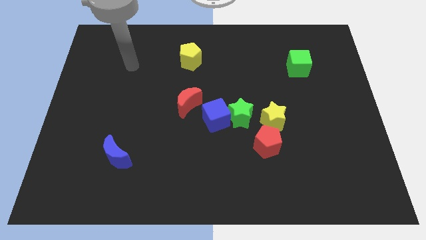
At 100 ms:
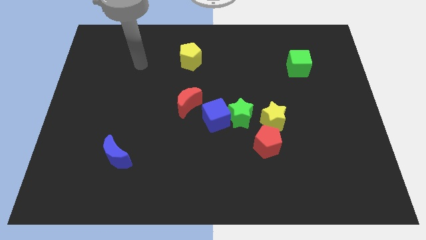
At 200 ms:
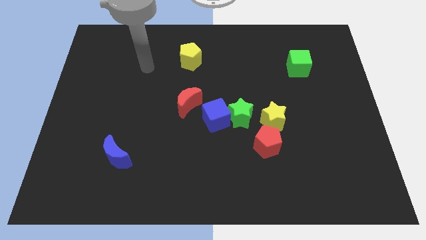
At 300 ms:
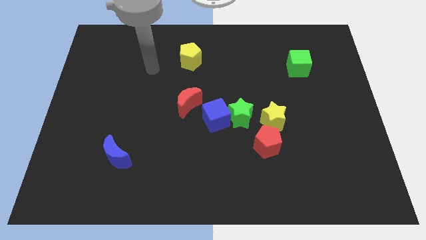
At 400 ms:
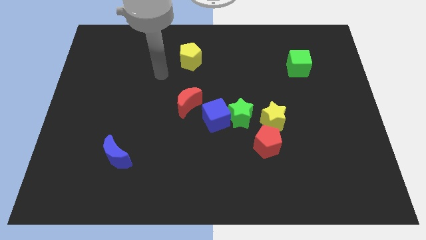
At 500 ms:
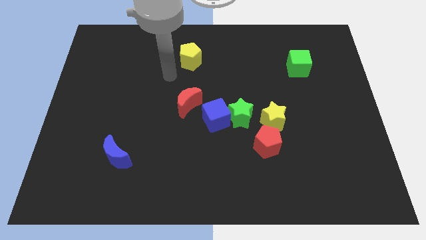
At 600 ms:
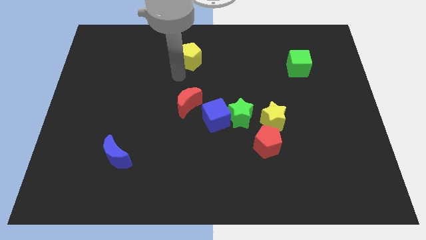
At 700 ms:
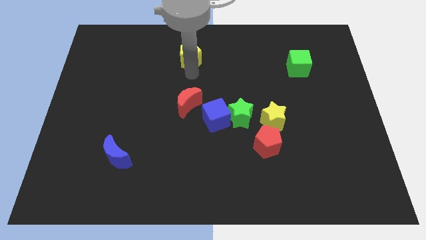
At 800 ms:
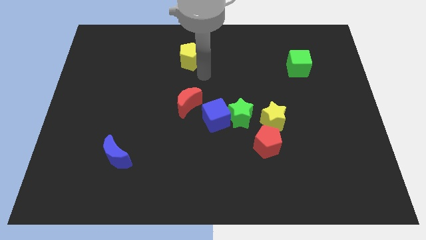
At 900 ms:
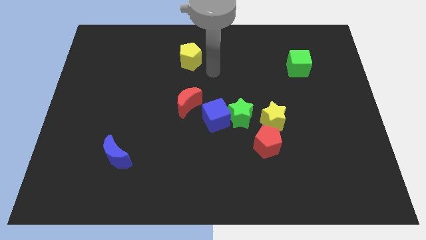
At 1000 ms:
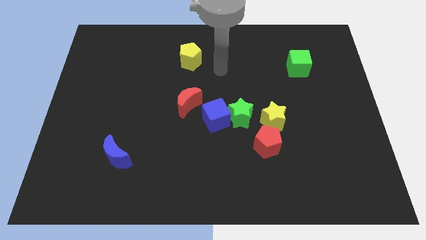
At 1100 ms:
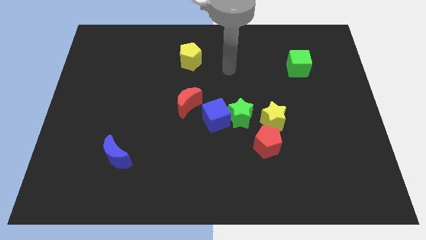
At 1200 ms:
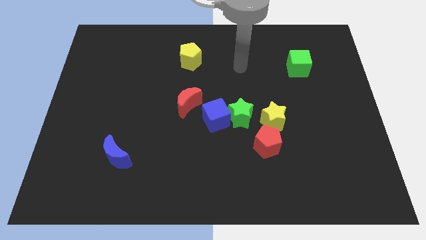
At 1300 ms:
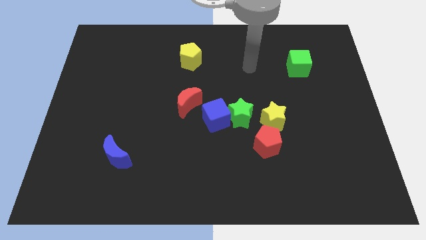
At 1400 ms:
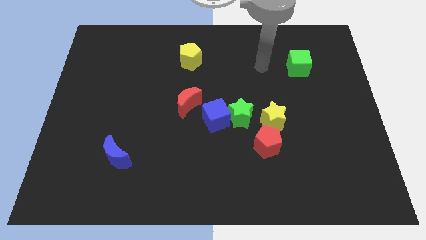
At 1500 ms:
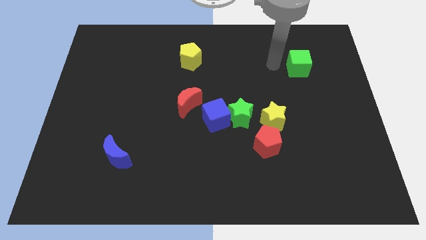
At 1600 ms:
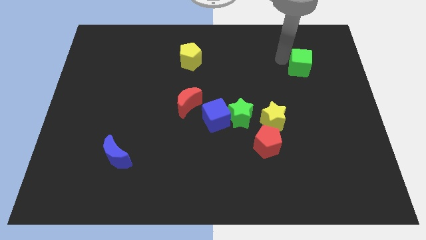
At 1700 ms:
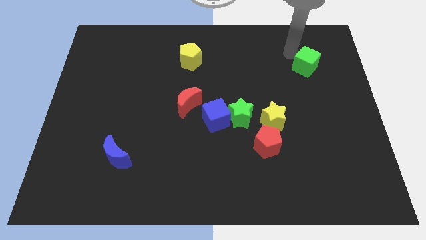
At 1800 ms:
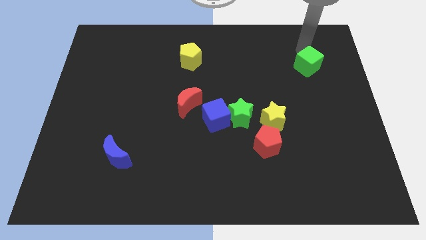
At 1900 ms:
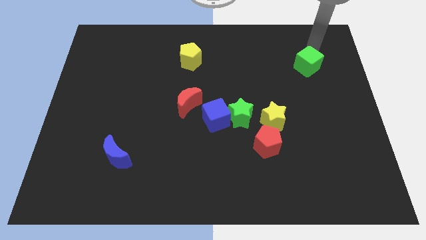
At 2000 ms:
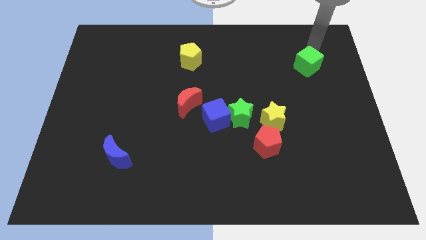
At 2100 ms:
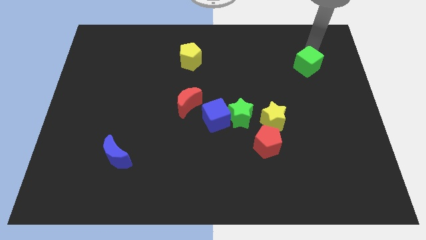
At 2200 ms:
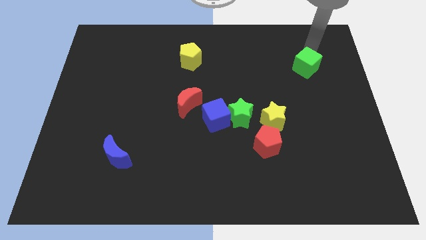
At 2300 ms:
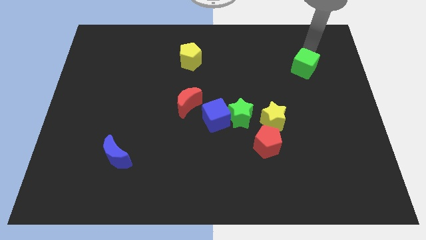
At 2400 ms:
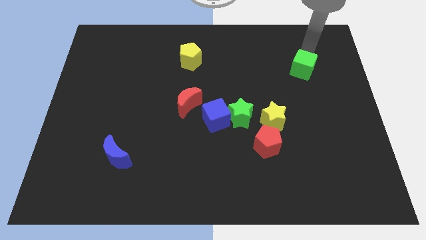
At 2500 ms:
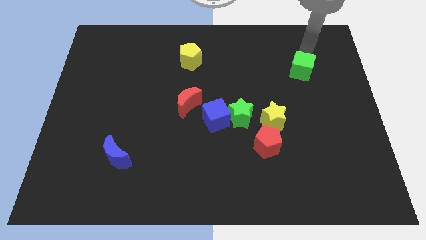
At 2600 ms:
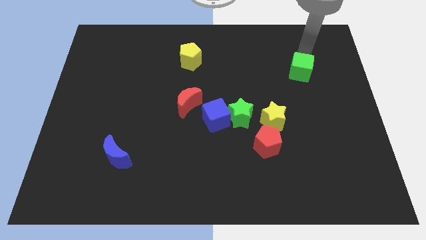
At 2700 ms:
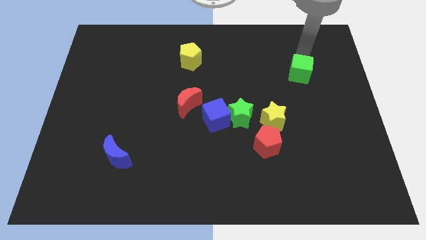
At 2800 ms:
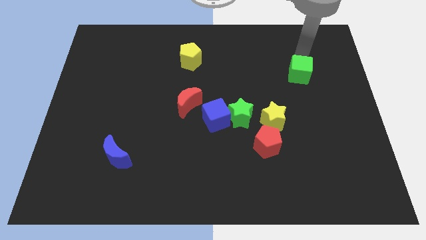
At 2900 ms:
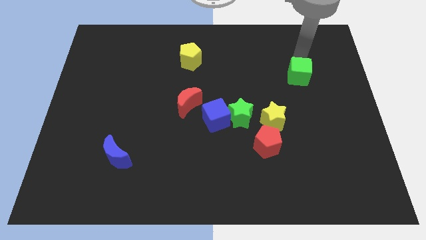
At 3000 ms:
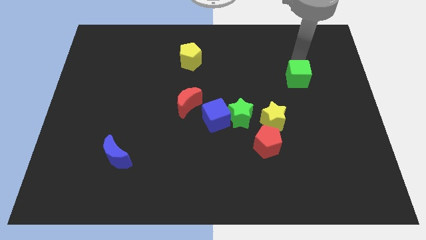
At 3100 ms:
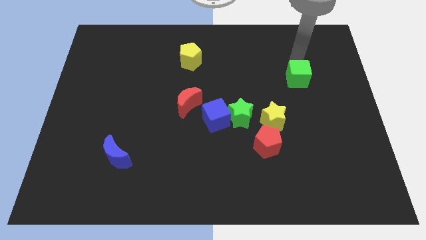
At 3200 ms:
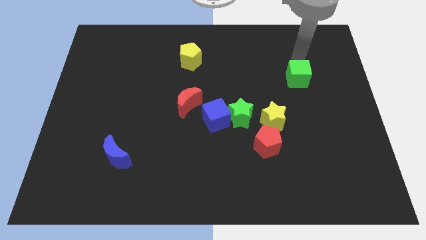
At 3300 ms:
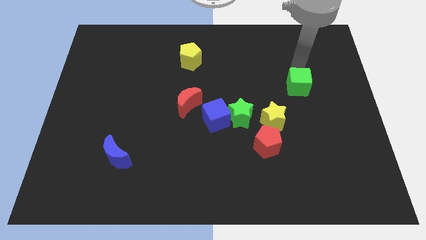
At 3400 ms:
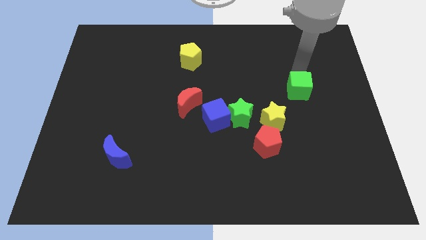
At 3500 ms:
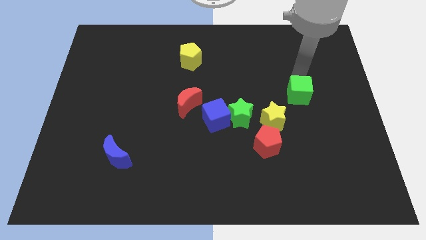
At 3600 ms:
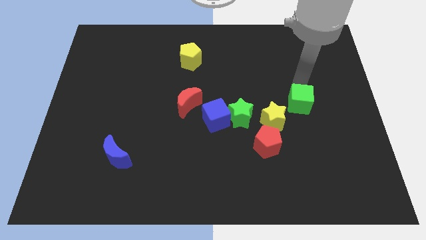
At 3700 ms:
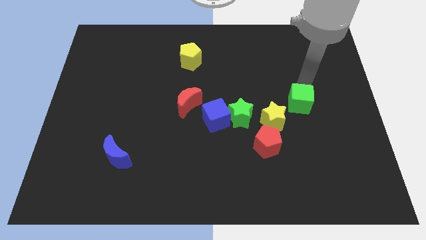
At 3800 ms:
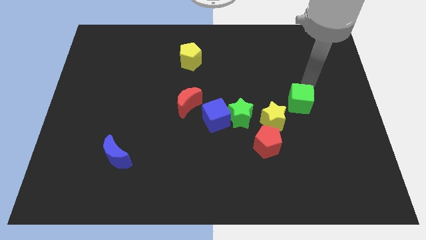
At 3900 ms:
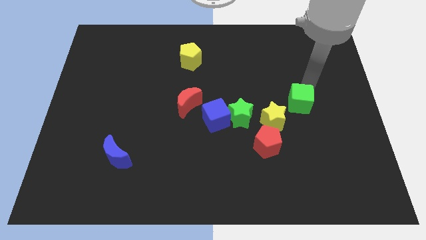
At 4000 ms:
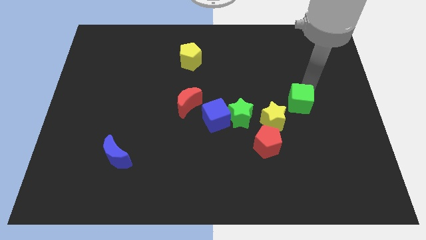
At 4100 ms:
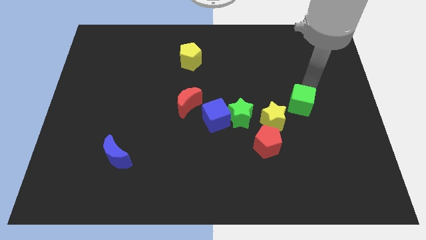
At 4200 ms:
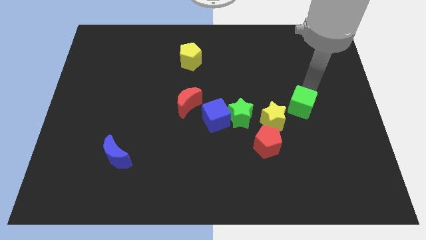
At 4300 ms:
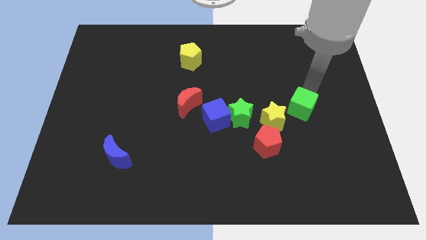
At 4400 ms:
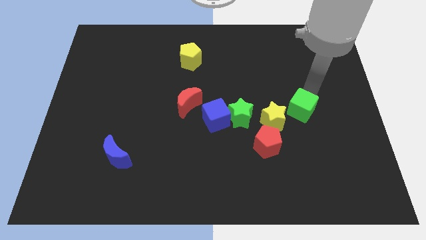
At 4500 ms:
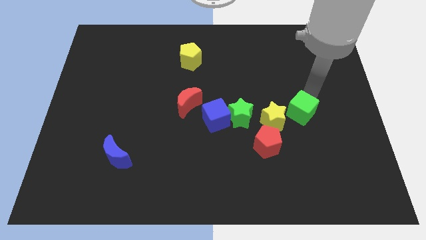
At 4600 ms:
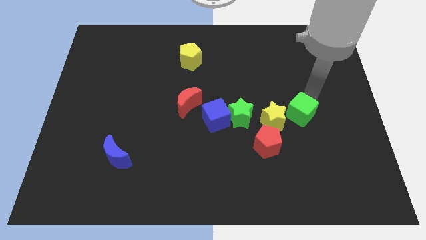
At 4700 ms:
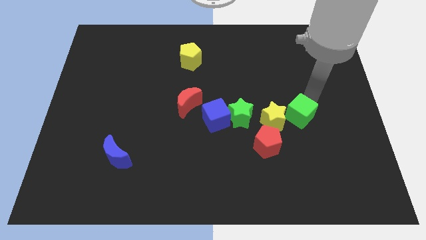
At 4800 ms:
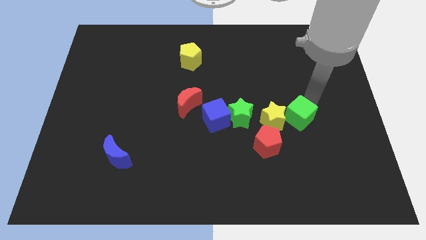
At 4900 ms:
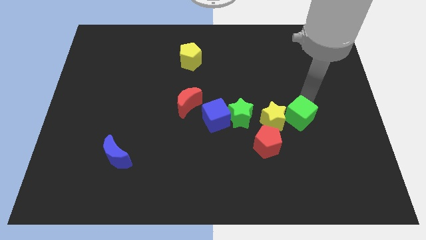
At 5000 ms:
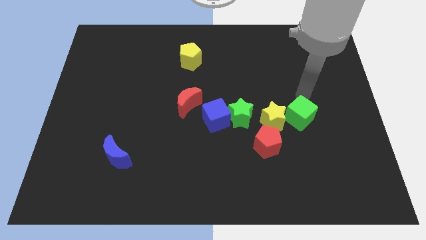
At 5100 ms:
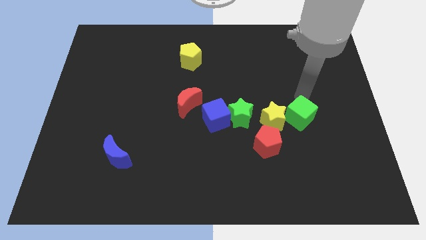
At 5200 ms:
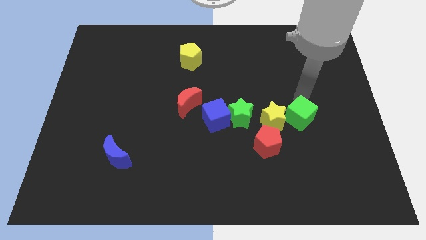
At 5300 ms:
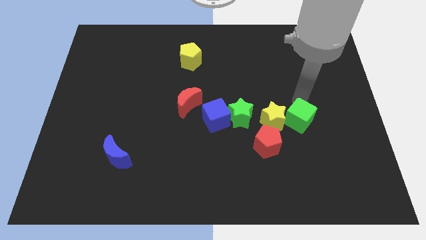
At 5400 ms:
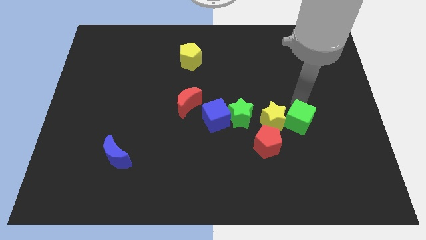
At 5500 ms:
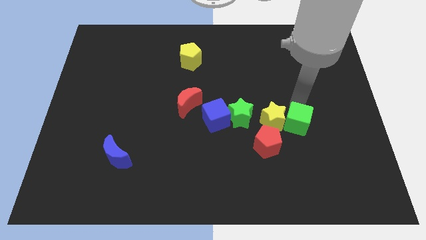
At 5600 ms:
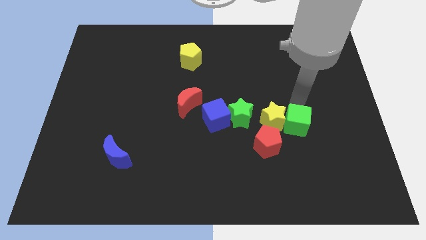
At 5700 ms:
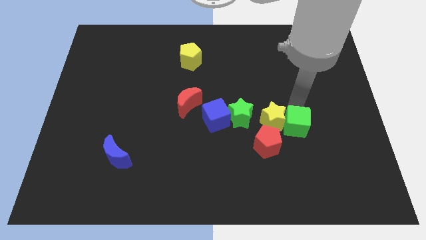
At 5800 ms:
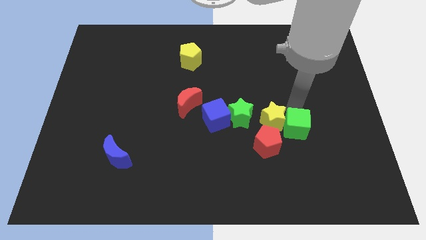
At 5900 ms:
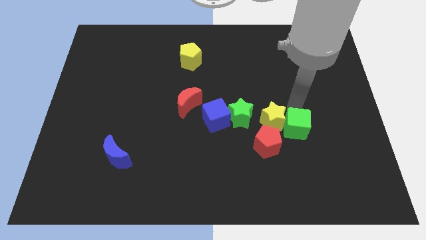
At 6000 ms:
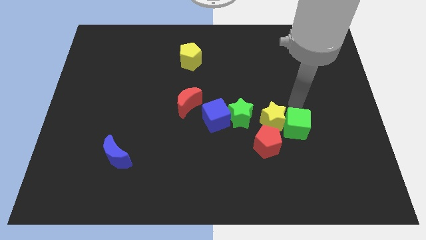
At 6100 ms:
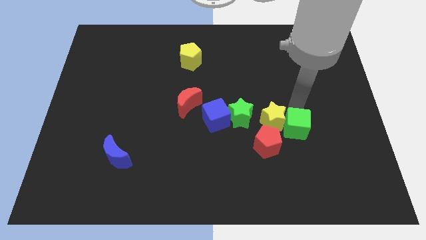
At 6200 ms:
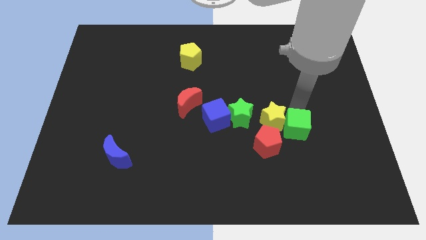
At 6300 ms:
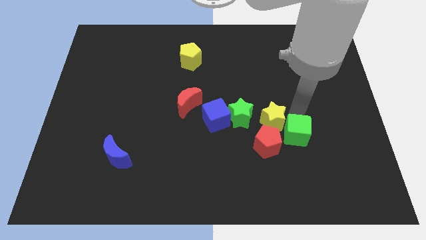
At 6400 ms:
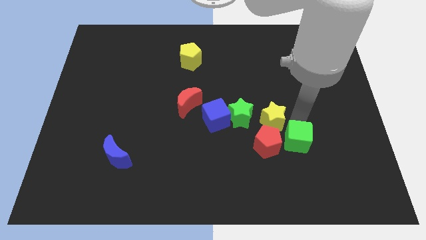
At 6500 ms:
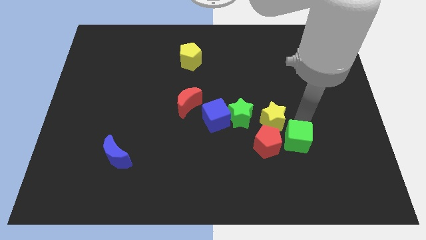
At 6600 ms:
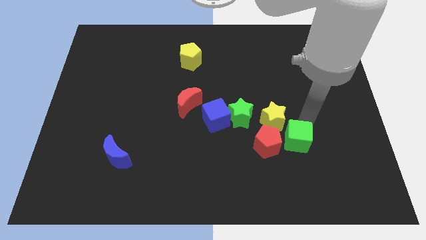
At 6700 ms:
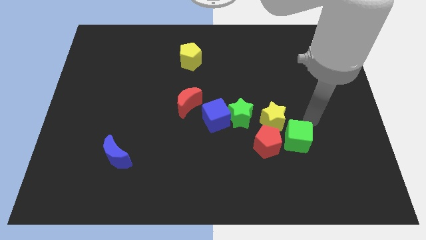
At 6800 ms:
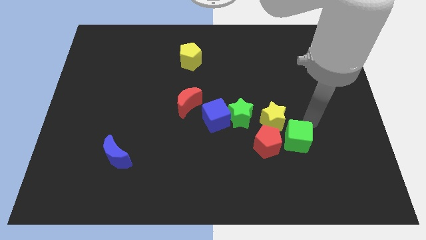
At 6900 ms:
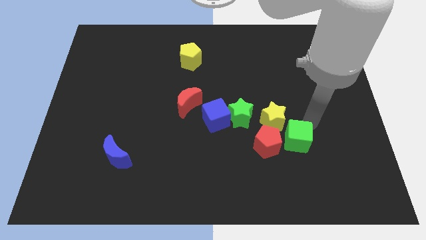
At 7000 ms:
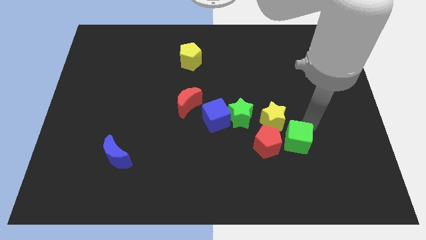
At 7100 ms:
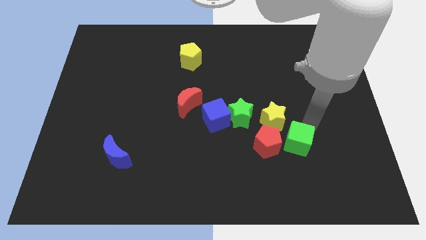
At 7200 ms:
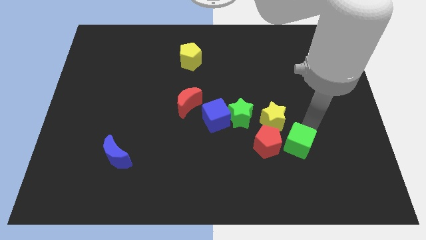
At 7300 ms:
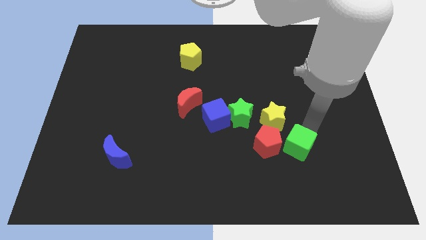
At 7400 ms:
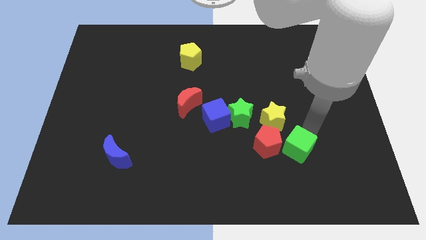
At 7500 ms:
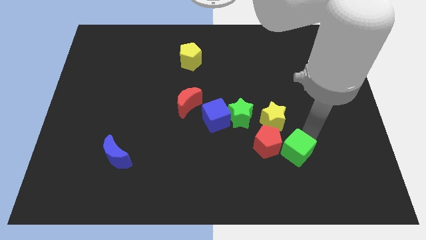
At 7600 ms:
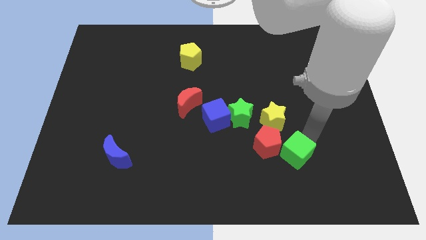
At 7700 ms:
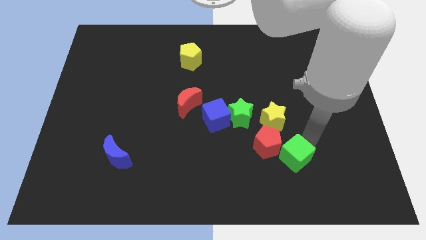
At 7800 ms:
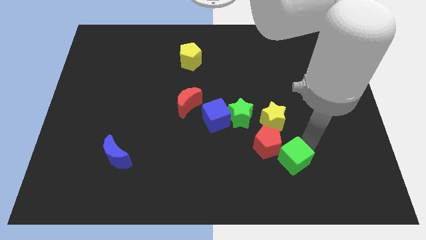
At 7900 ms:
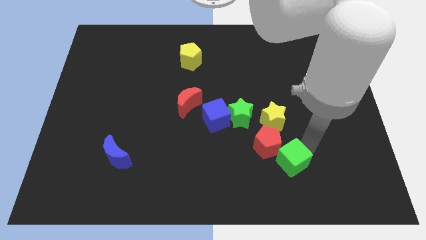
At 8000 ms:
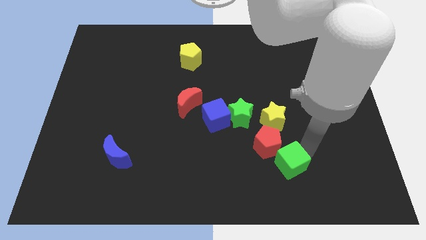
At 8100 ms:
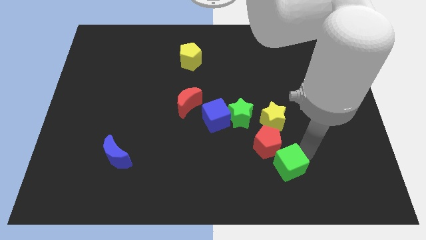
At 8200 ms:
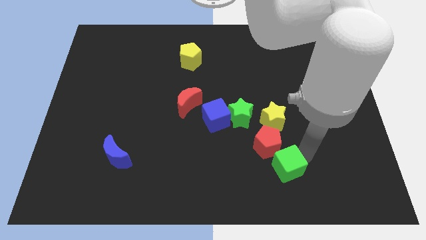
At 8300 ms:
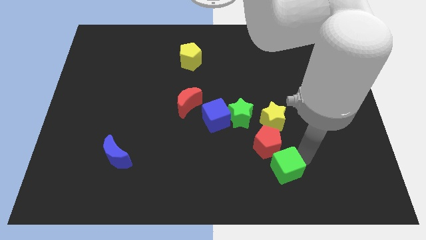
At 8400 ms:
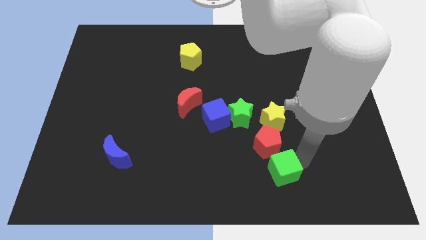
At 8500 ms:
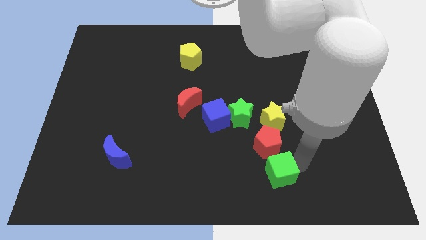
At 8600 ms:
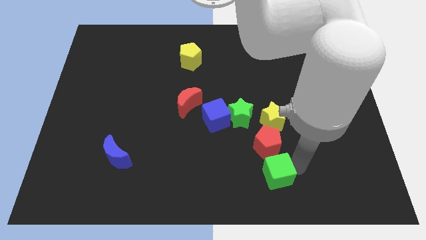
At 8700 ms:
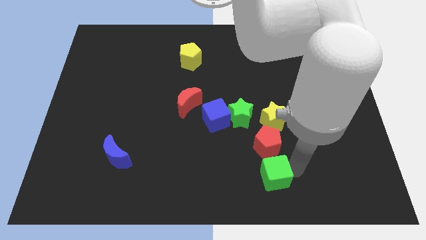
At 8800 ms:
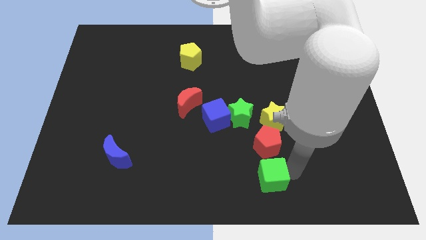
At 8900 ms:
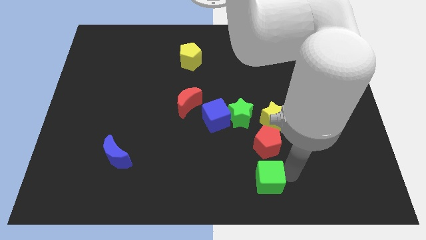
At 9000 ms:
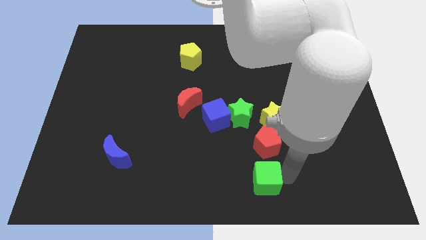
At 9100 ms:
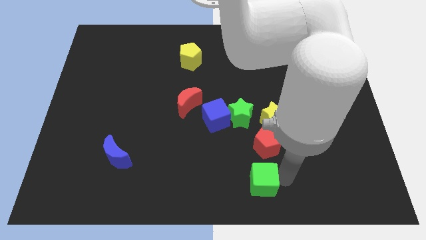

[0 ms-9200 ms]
push the green cube diagonally down and to the left of the red pentagon
